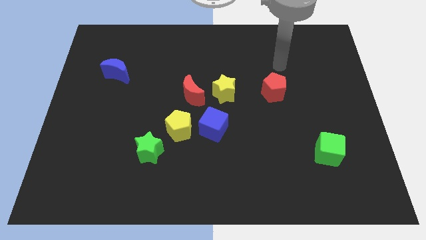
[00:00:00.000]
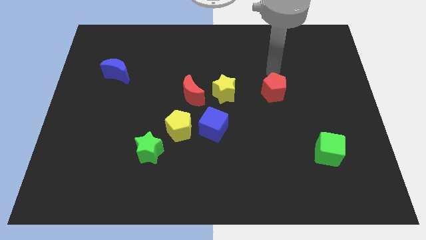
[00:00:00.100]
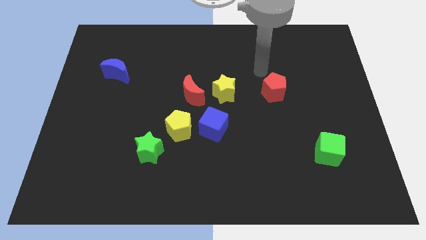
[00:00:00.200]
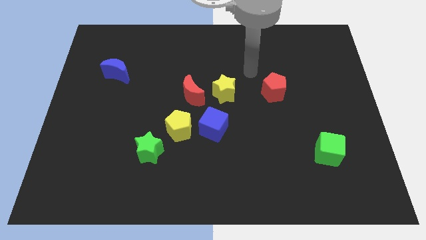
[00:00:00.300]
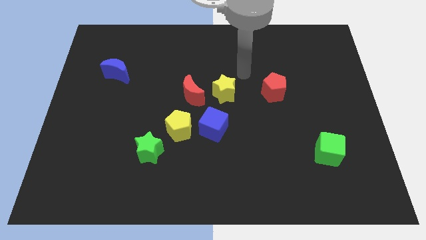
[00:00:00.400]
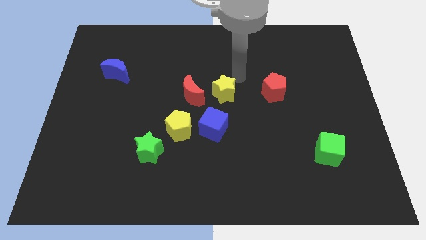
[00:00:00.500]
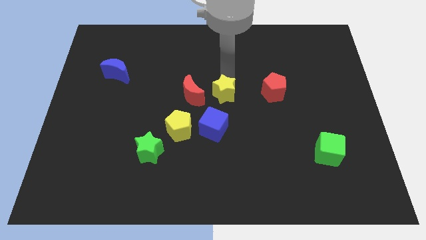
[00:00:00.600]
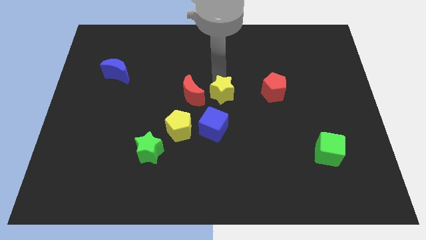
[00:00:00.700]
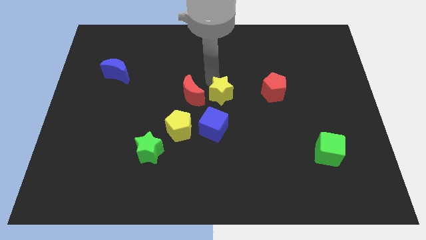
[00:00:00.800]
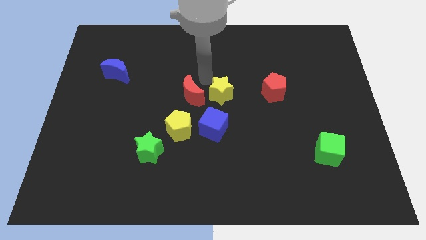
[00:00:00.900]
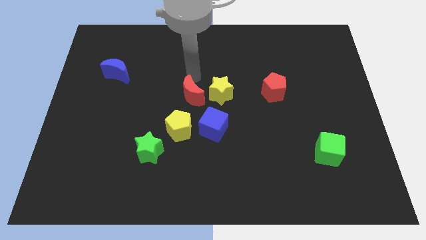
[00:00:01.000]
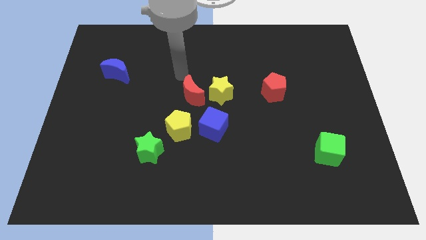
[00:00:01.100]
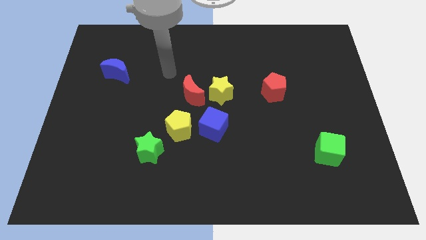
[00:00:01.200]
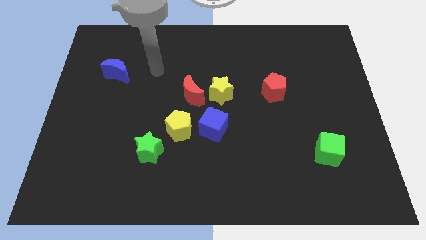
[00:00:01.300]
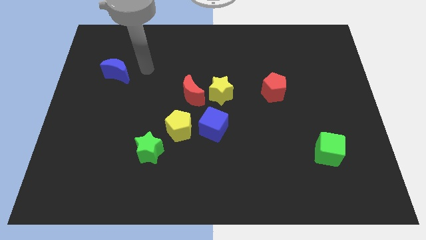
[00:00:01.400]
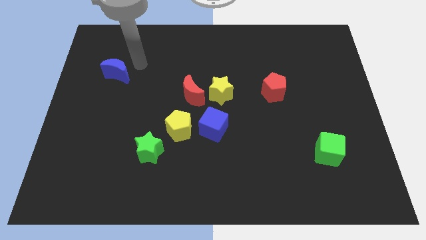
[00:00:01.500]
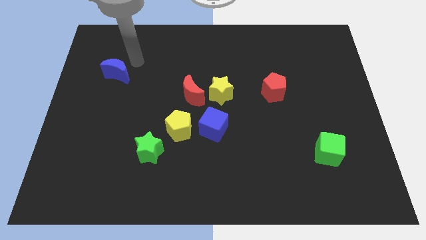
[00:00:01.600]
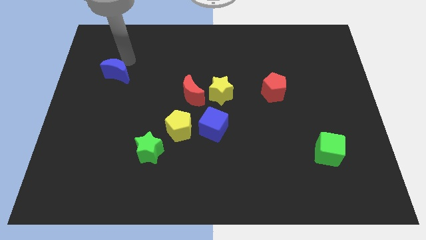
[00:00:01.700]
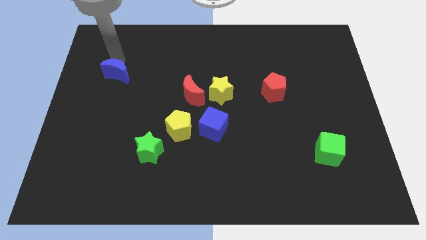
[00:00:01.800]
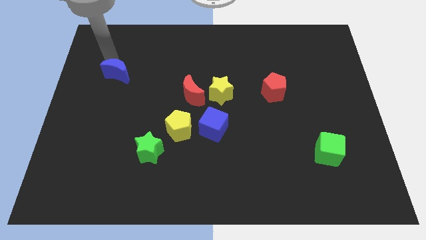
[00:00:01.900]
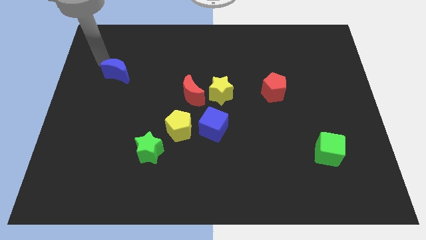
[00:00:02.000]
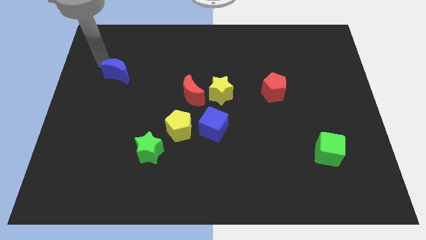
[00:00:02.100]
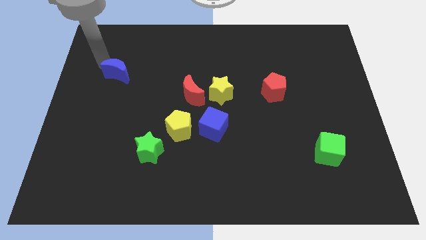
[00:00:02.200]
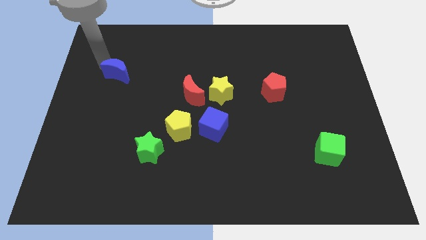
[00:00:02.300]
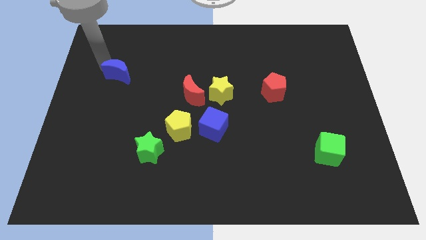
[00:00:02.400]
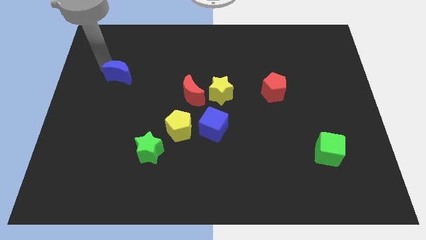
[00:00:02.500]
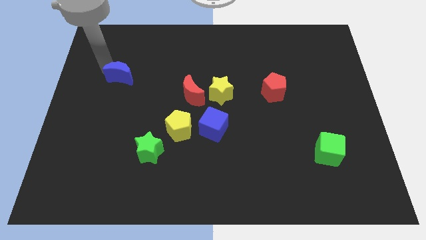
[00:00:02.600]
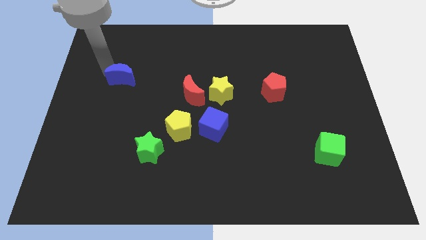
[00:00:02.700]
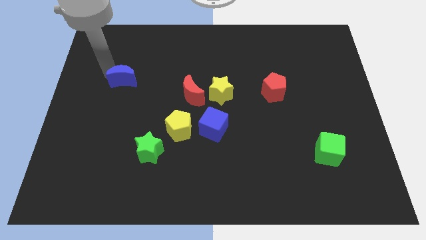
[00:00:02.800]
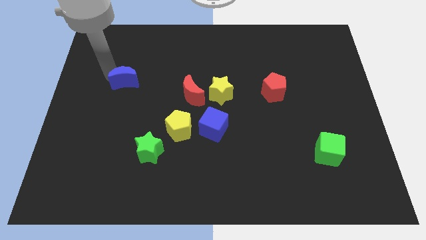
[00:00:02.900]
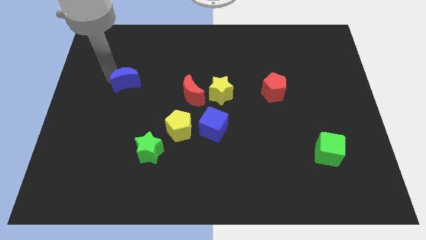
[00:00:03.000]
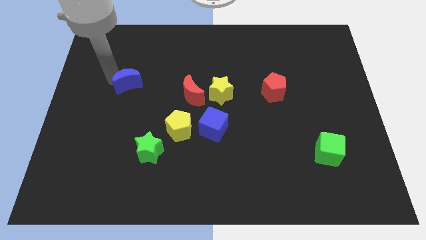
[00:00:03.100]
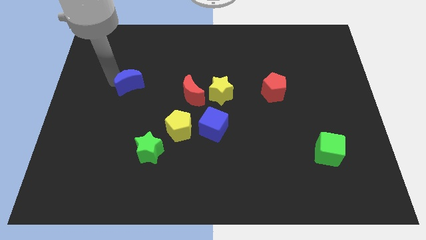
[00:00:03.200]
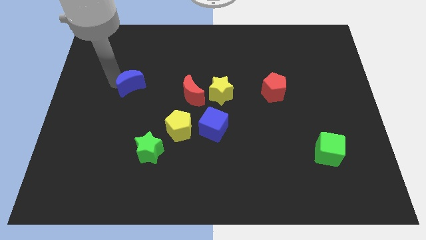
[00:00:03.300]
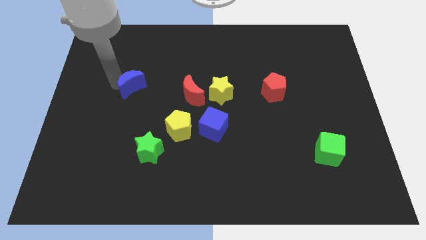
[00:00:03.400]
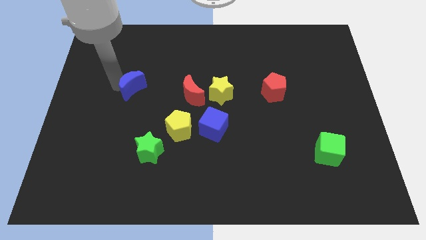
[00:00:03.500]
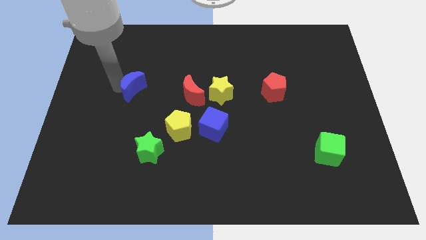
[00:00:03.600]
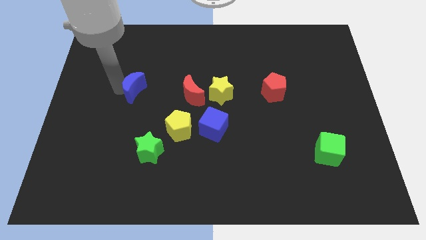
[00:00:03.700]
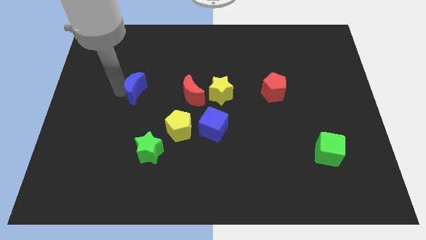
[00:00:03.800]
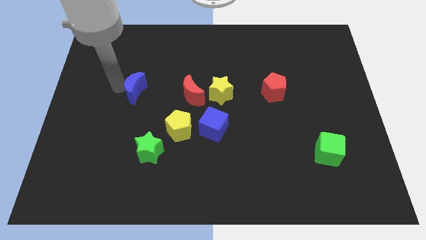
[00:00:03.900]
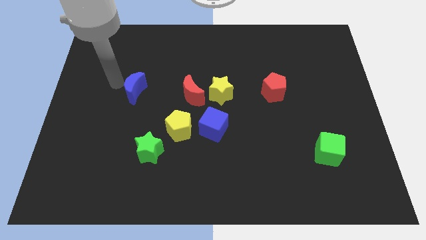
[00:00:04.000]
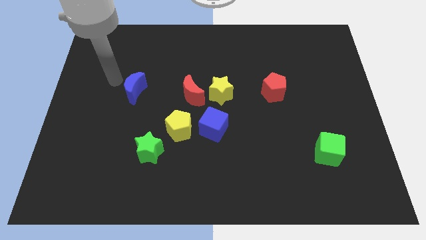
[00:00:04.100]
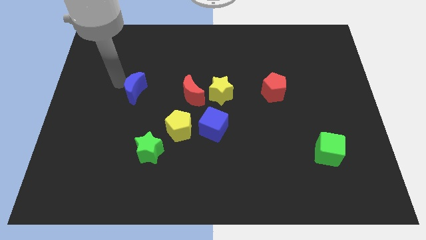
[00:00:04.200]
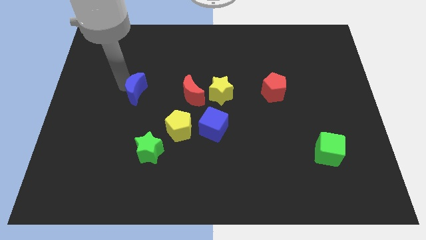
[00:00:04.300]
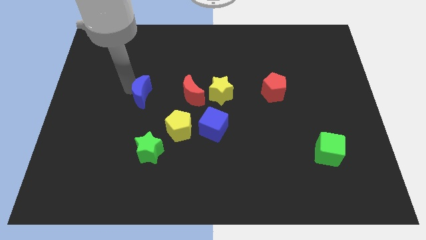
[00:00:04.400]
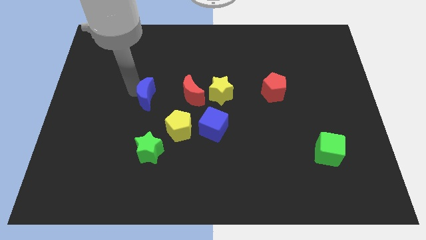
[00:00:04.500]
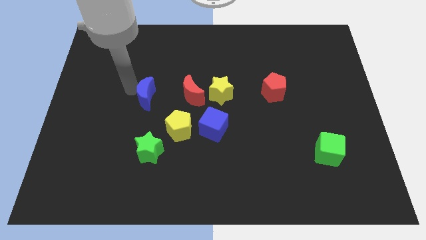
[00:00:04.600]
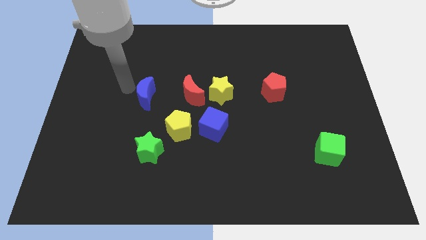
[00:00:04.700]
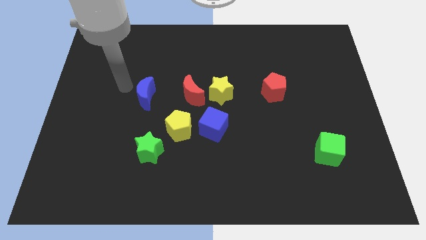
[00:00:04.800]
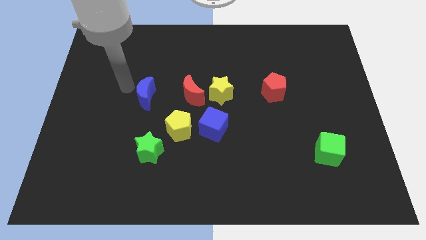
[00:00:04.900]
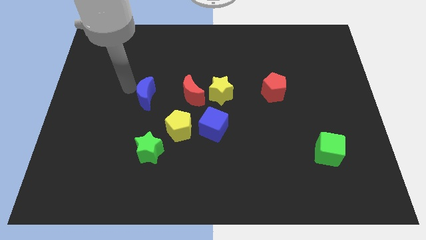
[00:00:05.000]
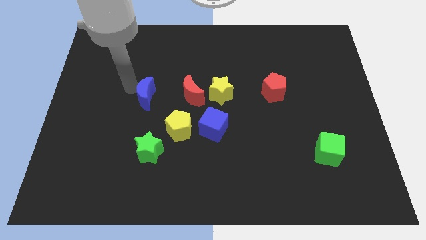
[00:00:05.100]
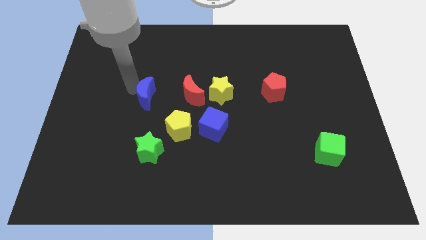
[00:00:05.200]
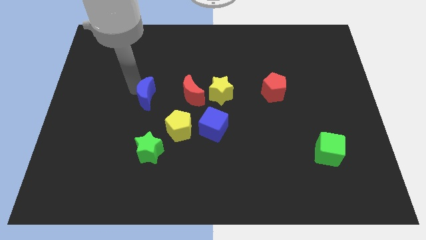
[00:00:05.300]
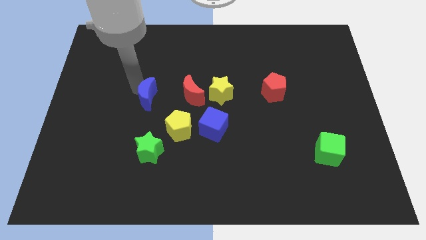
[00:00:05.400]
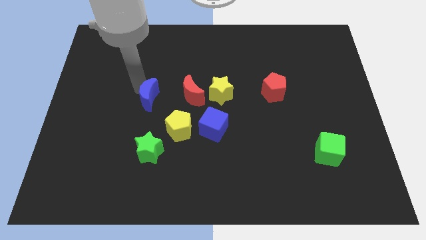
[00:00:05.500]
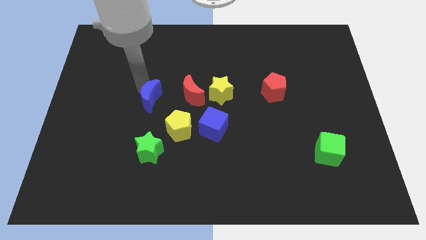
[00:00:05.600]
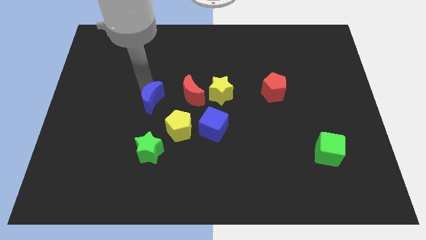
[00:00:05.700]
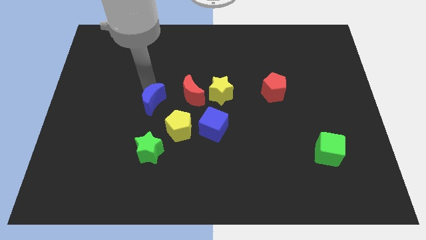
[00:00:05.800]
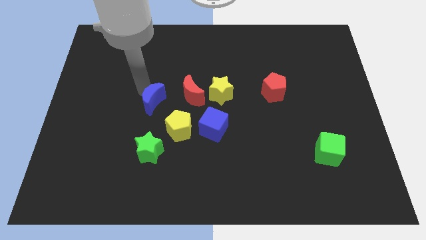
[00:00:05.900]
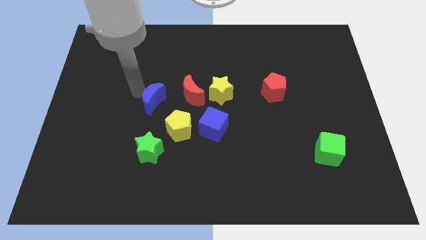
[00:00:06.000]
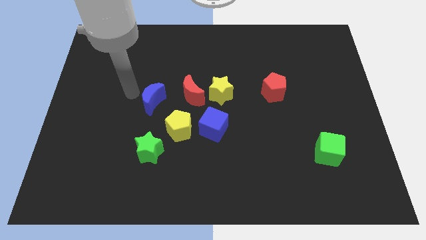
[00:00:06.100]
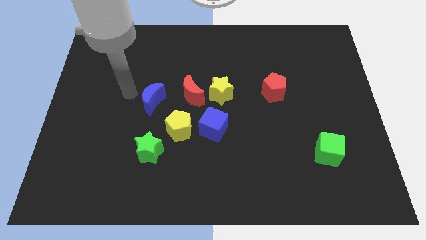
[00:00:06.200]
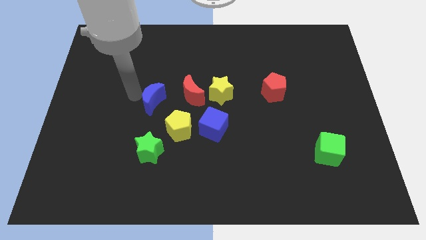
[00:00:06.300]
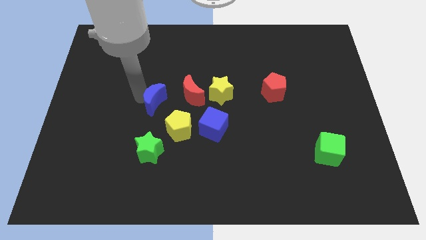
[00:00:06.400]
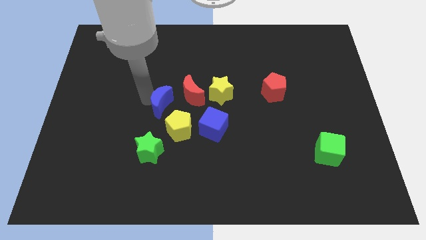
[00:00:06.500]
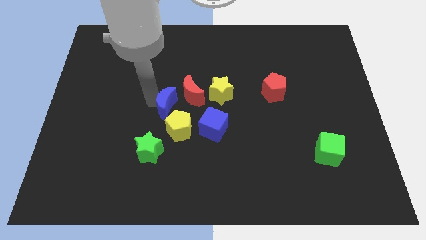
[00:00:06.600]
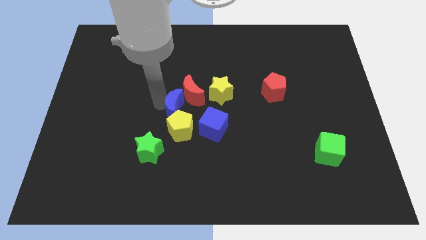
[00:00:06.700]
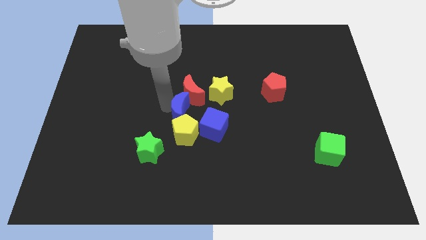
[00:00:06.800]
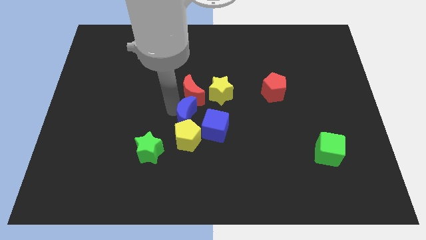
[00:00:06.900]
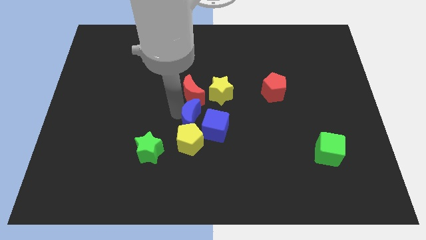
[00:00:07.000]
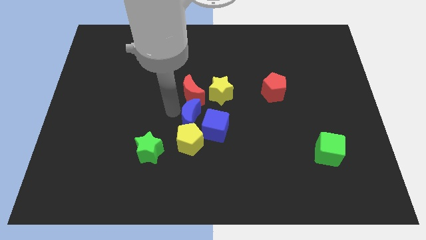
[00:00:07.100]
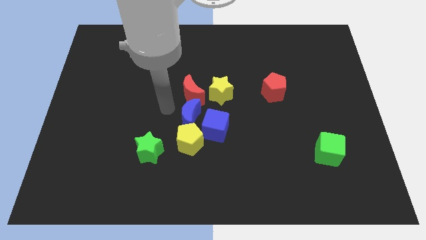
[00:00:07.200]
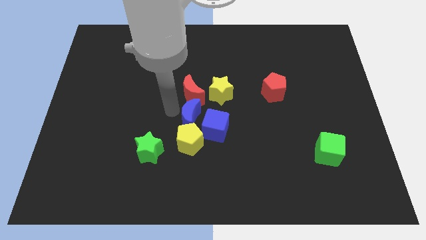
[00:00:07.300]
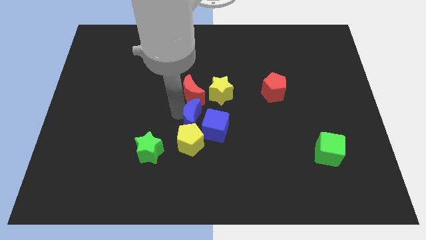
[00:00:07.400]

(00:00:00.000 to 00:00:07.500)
put the blue moon close to the blue cube
